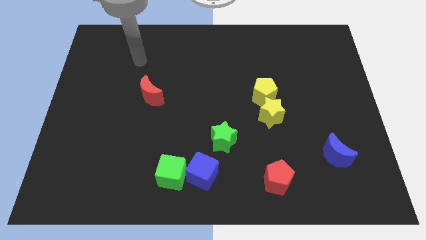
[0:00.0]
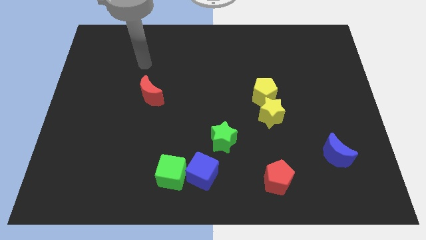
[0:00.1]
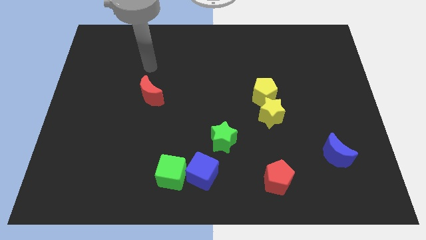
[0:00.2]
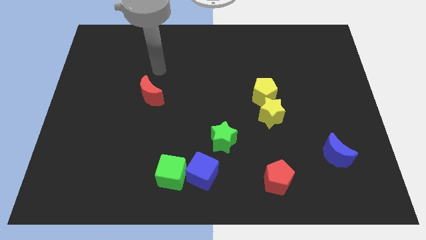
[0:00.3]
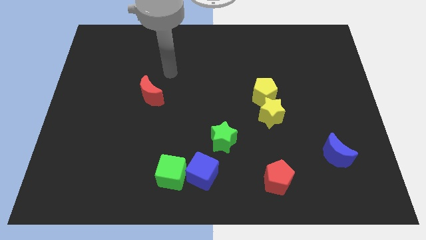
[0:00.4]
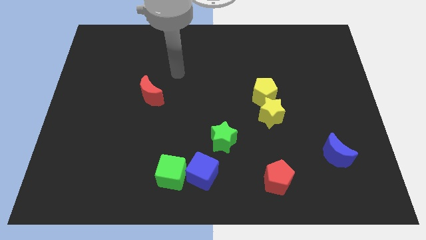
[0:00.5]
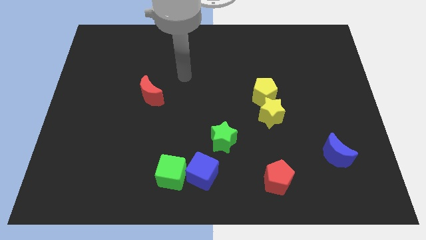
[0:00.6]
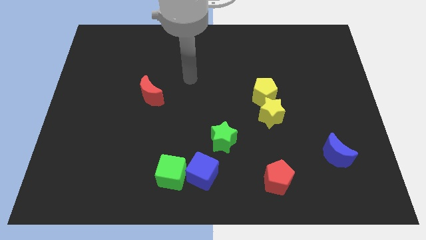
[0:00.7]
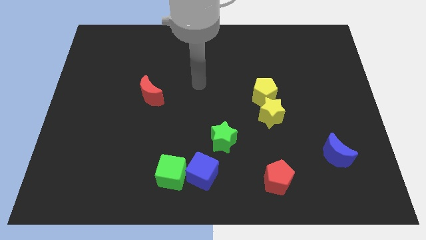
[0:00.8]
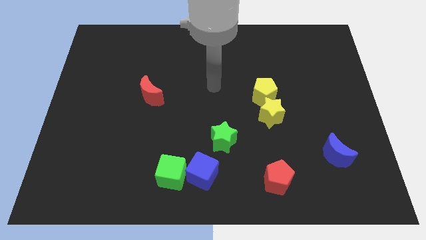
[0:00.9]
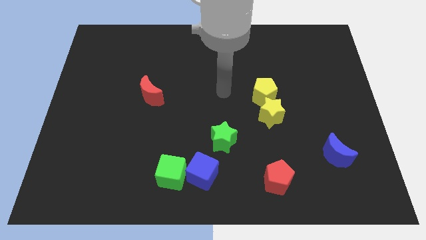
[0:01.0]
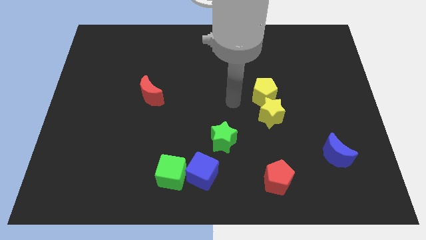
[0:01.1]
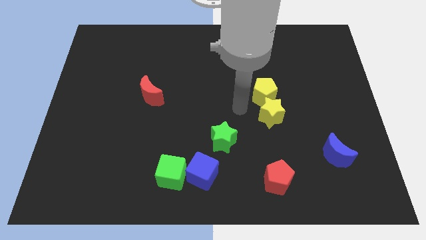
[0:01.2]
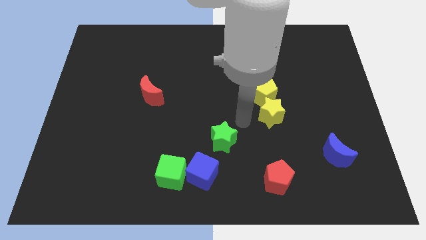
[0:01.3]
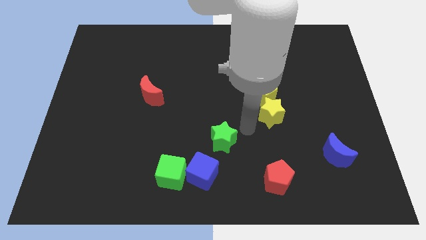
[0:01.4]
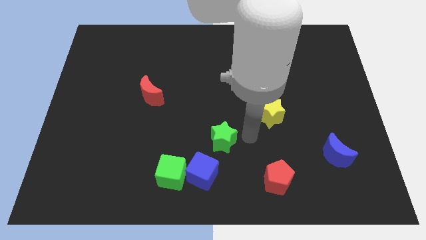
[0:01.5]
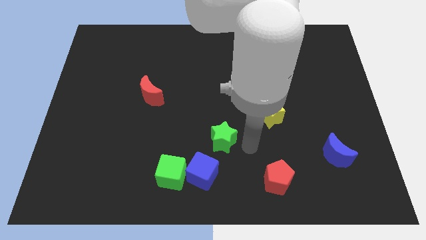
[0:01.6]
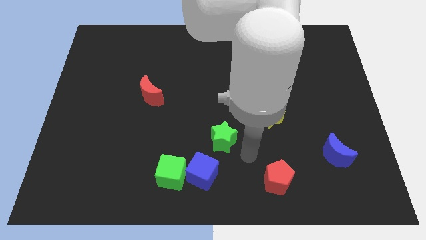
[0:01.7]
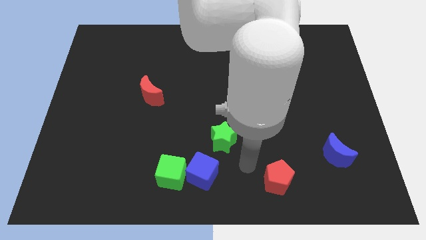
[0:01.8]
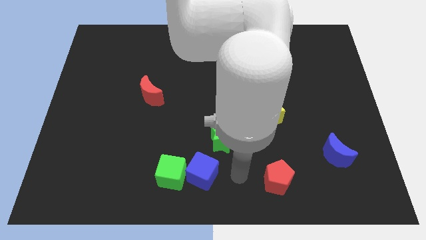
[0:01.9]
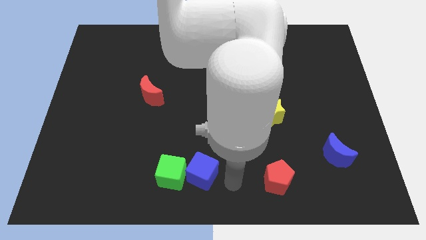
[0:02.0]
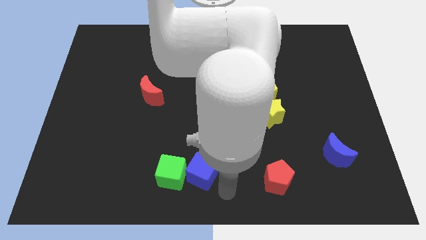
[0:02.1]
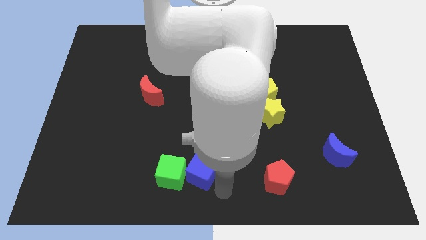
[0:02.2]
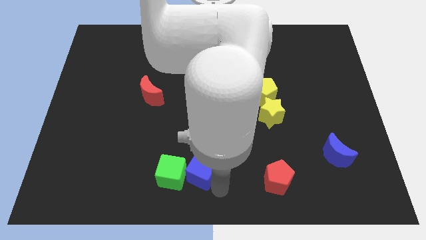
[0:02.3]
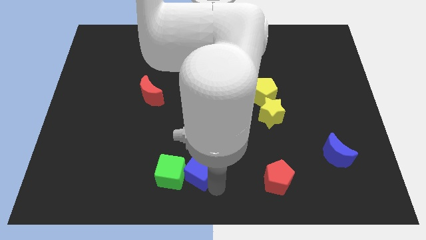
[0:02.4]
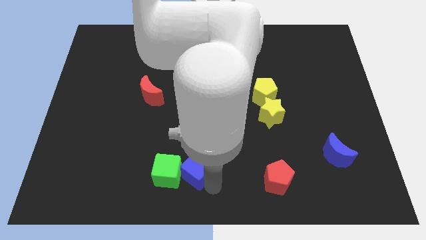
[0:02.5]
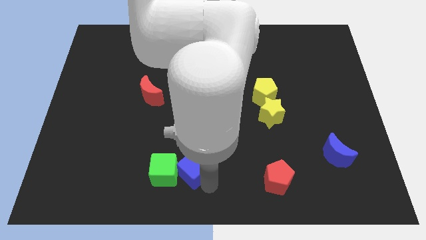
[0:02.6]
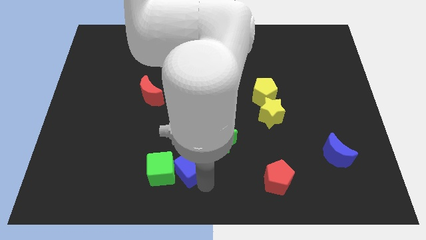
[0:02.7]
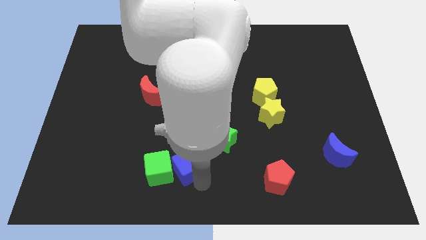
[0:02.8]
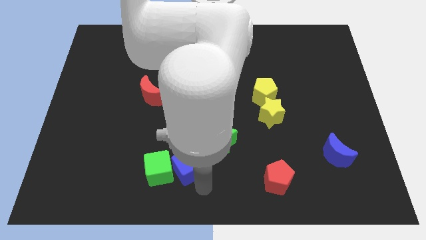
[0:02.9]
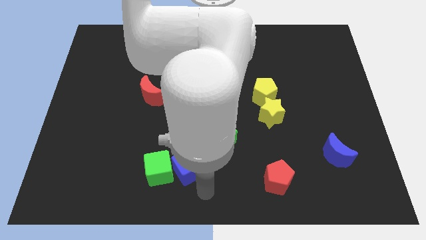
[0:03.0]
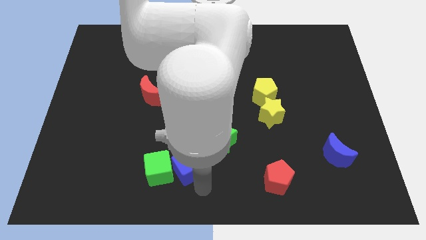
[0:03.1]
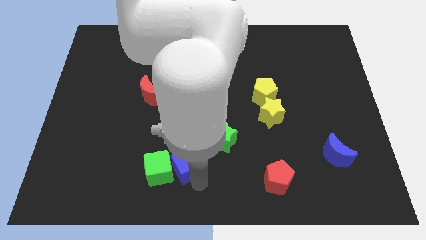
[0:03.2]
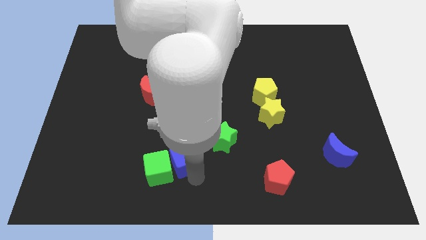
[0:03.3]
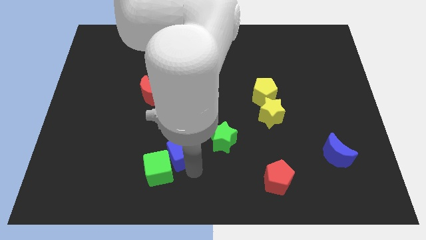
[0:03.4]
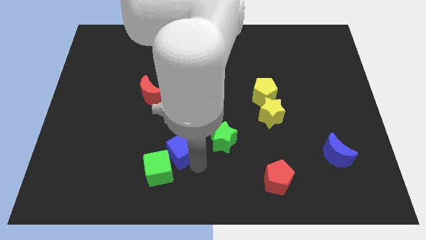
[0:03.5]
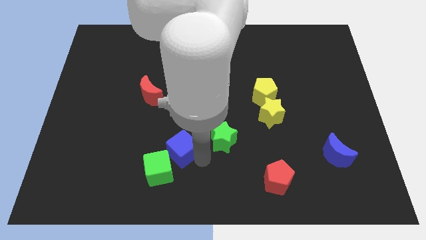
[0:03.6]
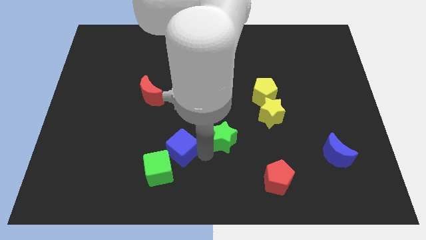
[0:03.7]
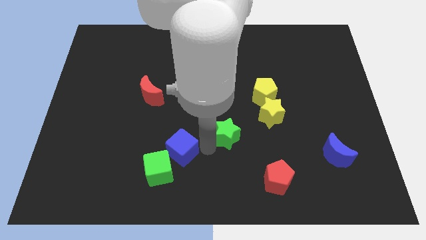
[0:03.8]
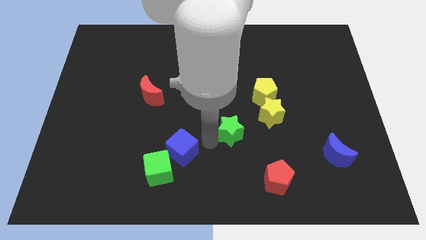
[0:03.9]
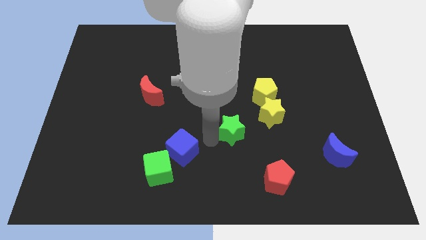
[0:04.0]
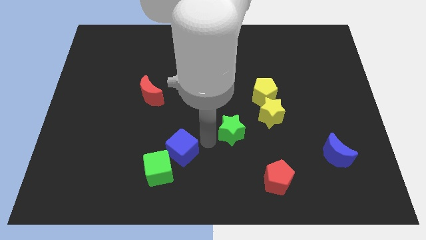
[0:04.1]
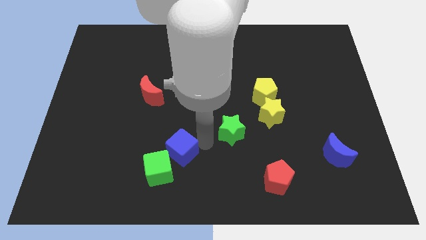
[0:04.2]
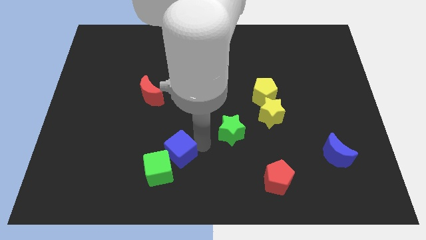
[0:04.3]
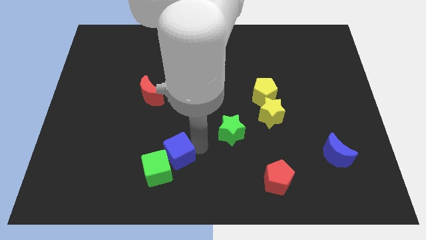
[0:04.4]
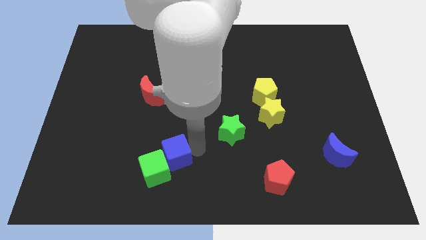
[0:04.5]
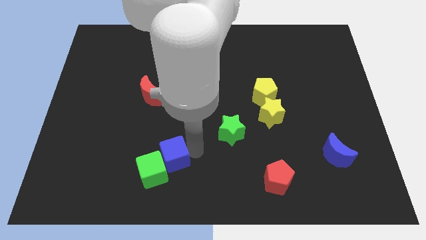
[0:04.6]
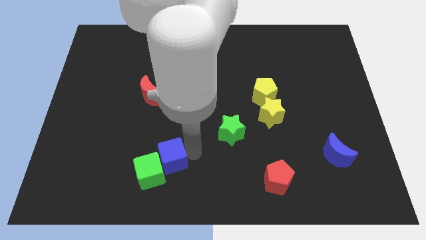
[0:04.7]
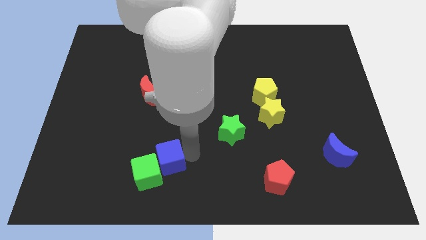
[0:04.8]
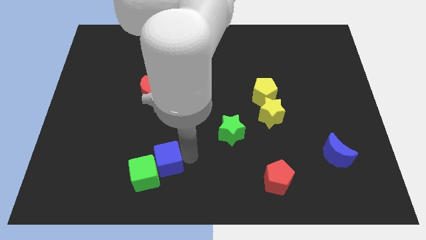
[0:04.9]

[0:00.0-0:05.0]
push the blue cube a little left

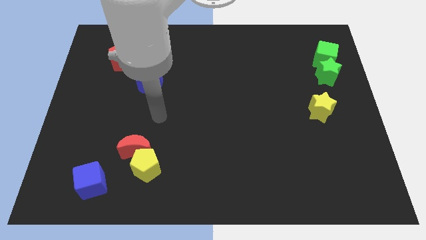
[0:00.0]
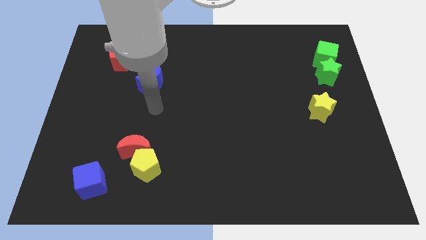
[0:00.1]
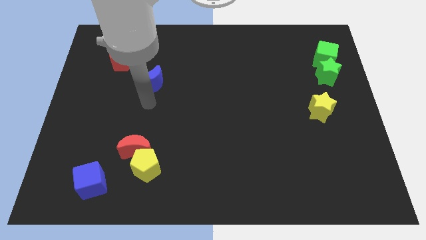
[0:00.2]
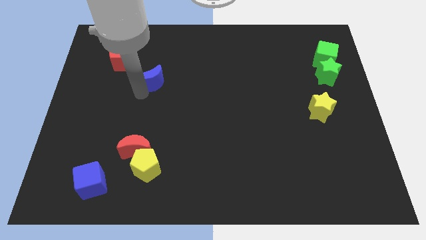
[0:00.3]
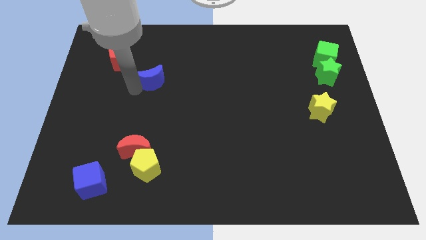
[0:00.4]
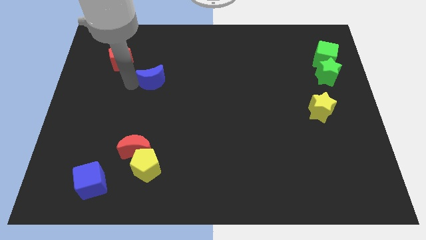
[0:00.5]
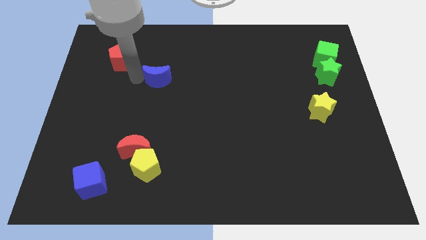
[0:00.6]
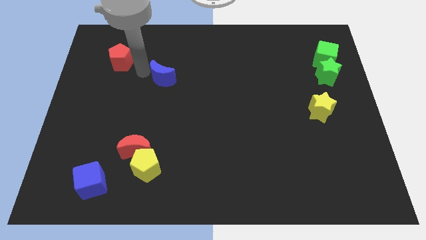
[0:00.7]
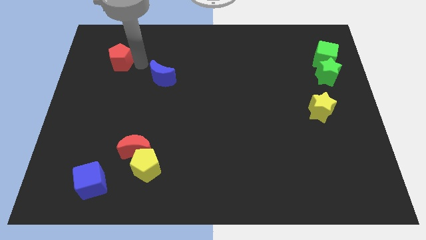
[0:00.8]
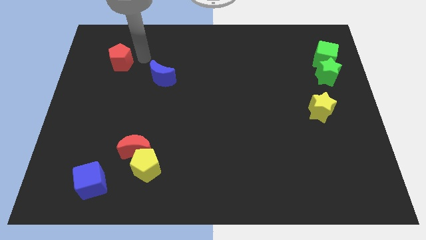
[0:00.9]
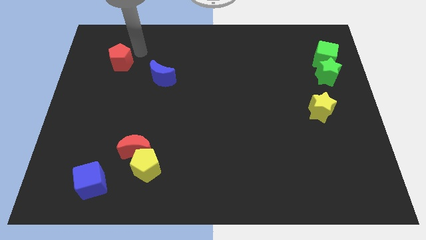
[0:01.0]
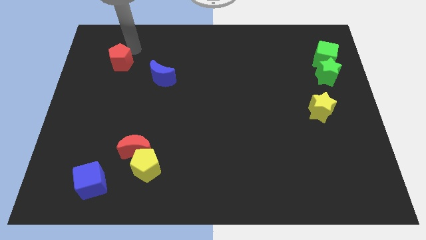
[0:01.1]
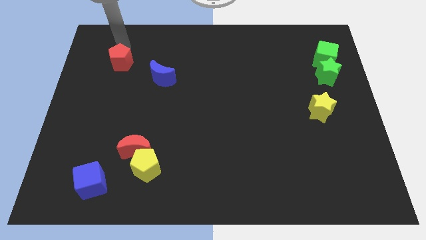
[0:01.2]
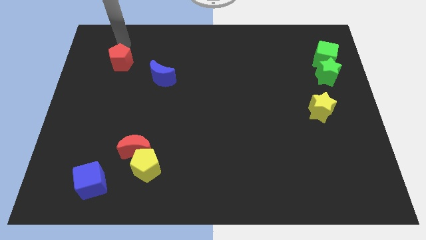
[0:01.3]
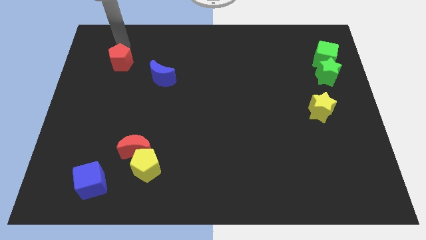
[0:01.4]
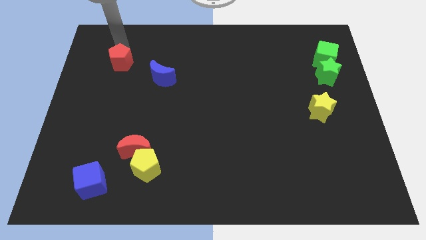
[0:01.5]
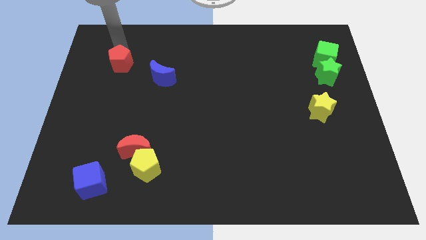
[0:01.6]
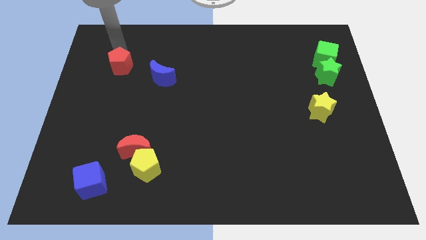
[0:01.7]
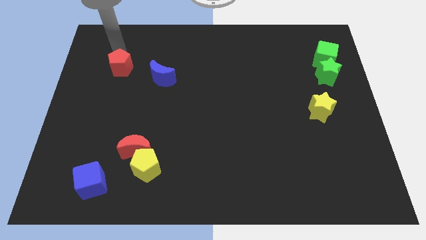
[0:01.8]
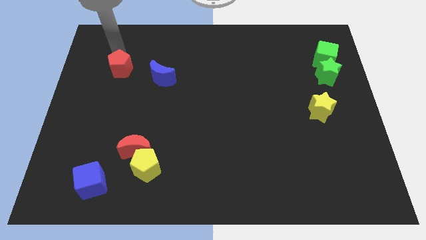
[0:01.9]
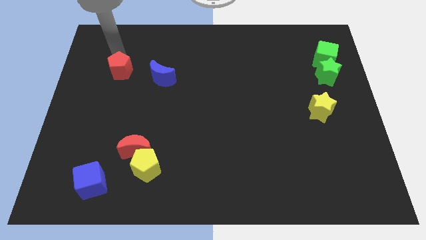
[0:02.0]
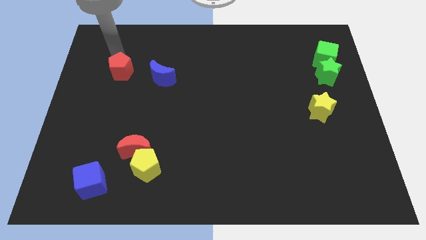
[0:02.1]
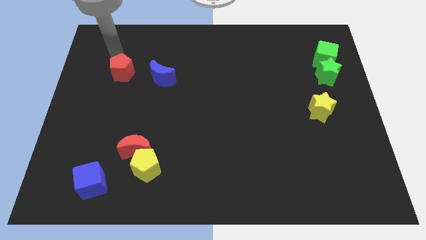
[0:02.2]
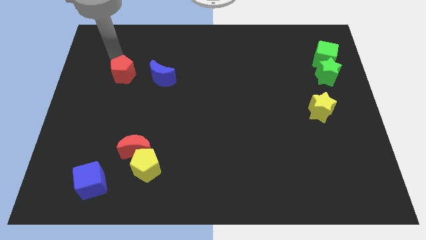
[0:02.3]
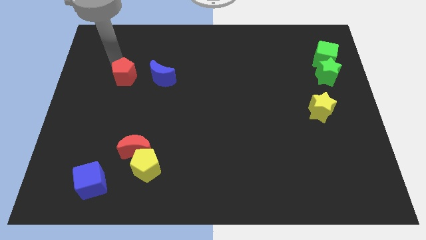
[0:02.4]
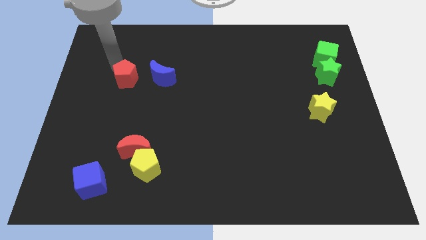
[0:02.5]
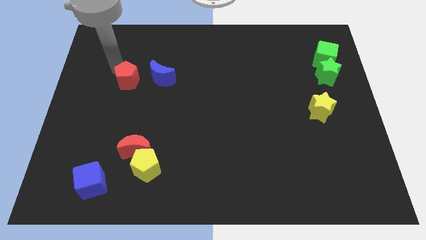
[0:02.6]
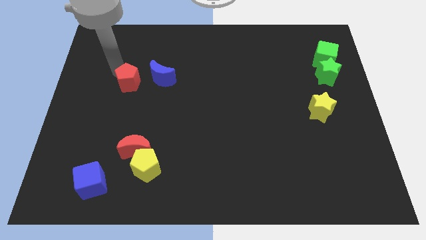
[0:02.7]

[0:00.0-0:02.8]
push the red pentagon a little down

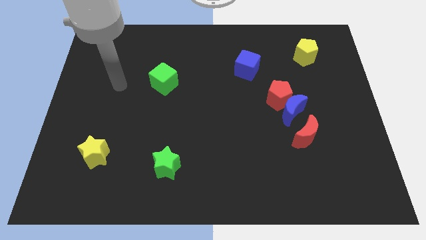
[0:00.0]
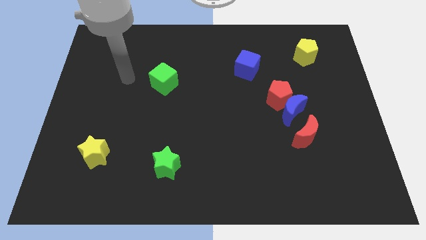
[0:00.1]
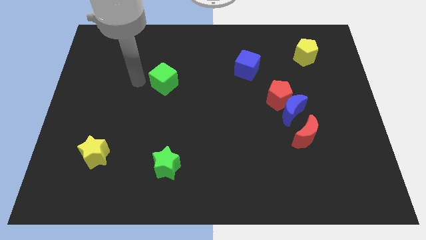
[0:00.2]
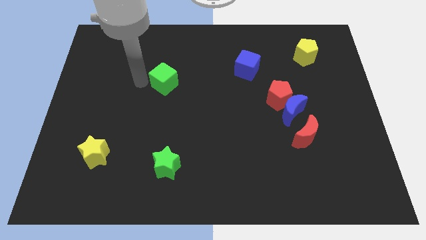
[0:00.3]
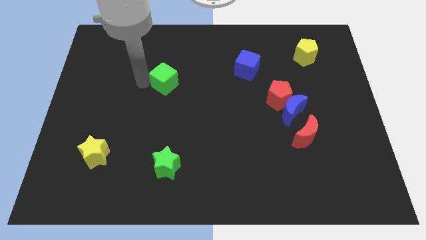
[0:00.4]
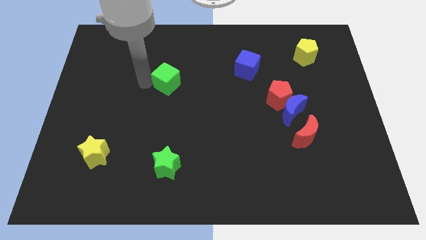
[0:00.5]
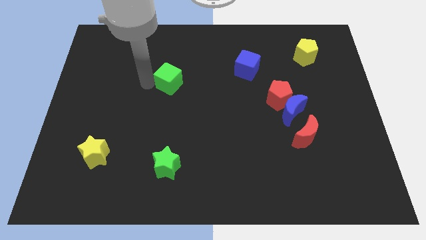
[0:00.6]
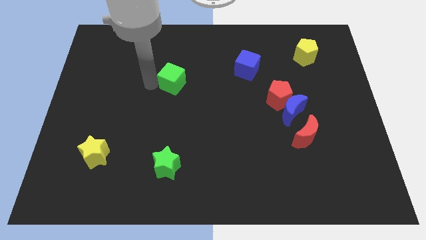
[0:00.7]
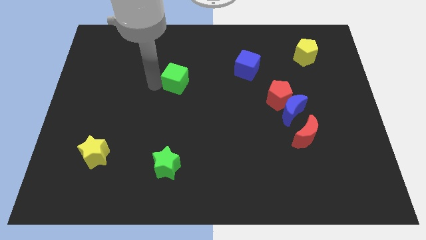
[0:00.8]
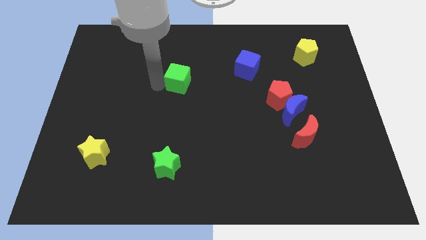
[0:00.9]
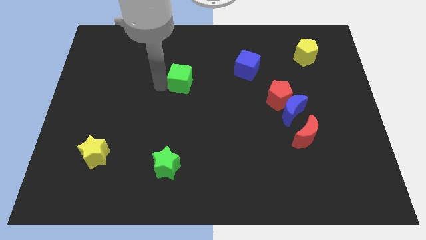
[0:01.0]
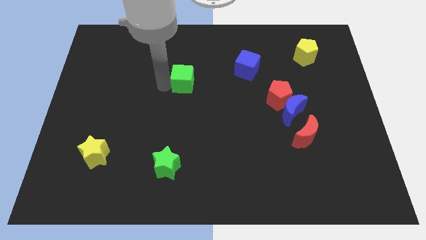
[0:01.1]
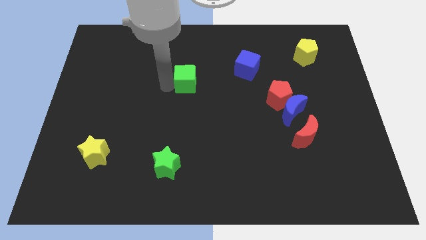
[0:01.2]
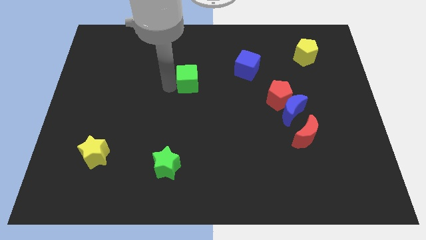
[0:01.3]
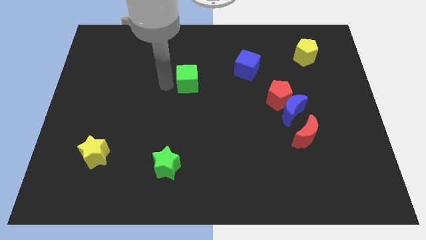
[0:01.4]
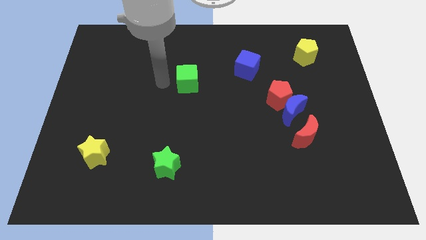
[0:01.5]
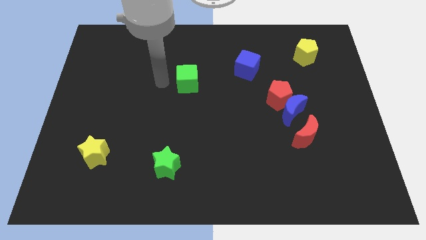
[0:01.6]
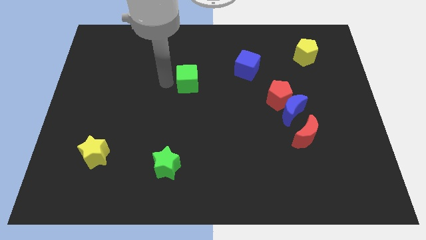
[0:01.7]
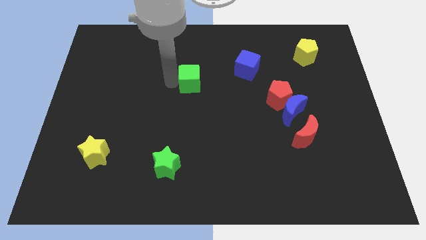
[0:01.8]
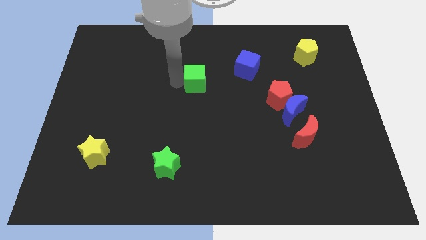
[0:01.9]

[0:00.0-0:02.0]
push the green cube to the right a little
